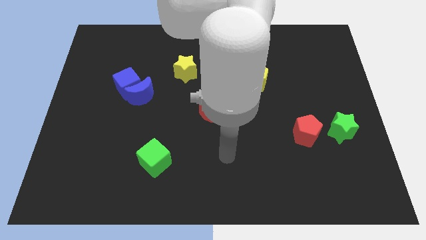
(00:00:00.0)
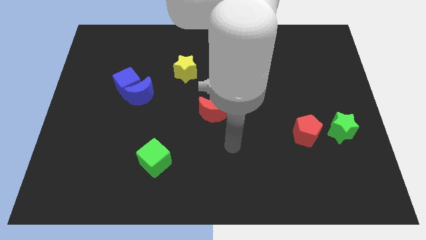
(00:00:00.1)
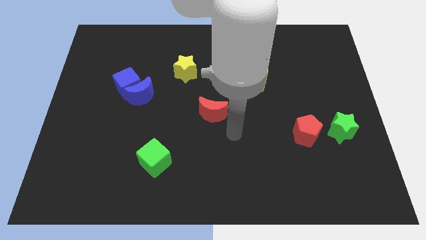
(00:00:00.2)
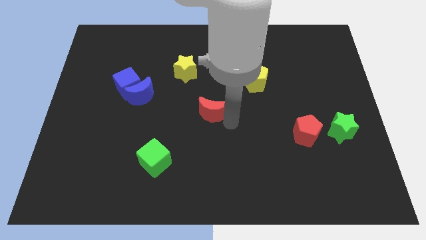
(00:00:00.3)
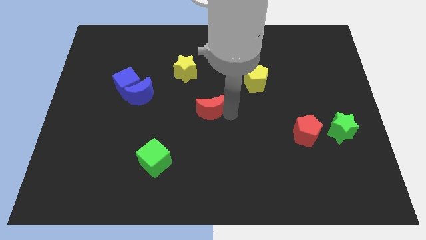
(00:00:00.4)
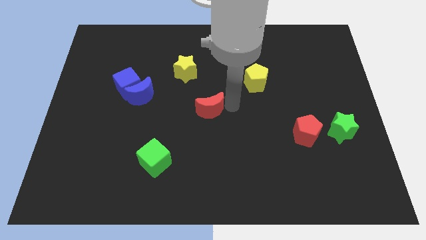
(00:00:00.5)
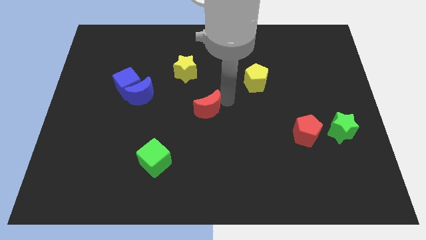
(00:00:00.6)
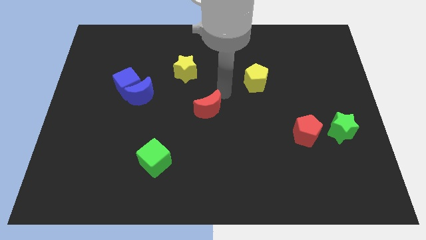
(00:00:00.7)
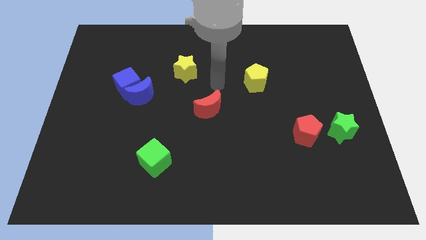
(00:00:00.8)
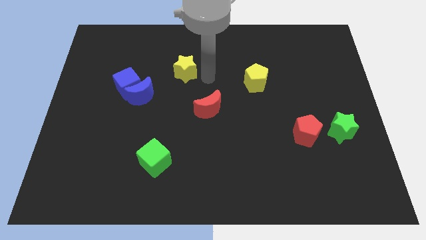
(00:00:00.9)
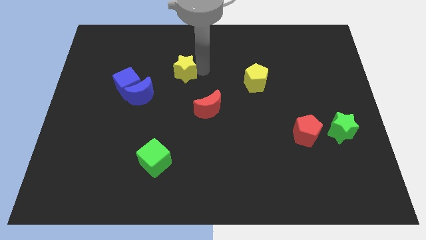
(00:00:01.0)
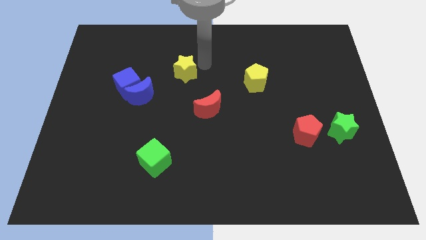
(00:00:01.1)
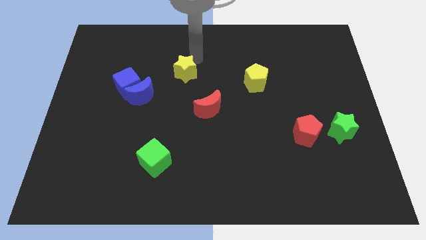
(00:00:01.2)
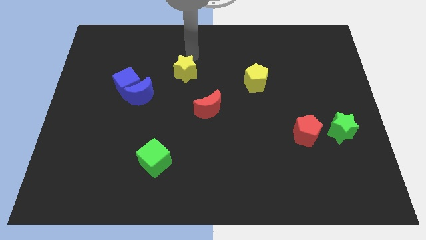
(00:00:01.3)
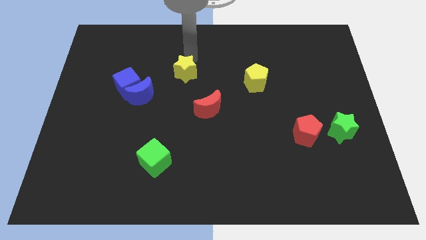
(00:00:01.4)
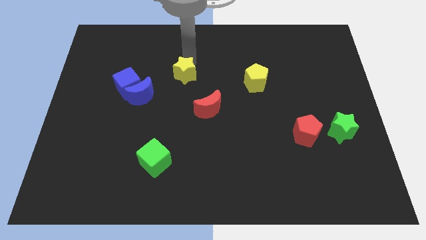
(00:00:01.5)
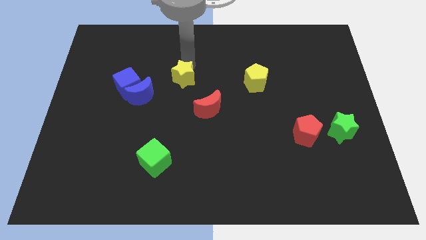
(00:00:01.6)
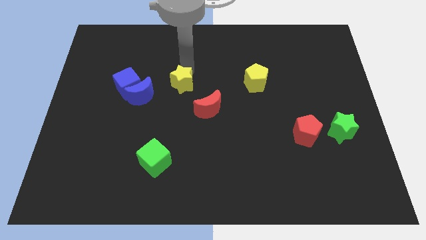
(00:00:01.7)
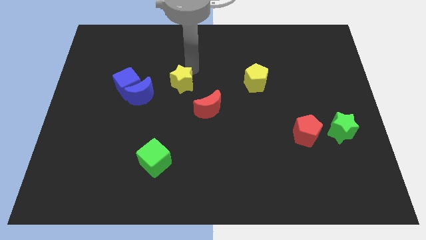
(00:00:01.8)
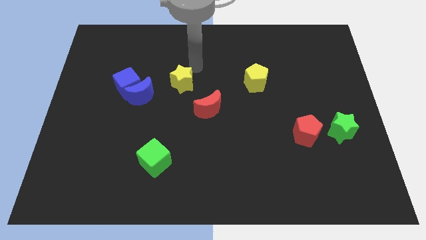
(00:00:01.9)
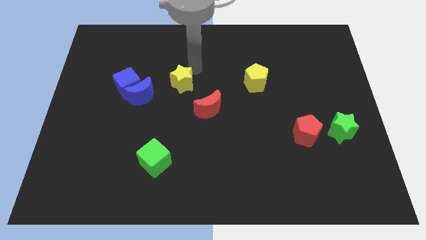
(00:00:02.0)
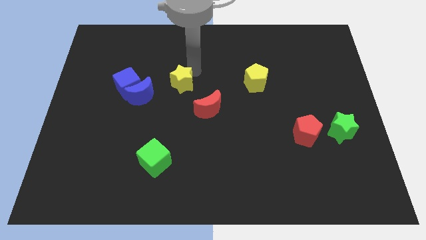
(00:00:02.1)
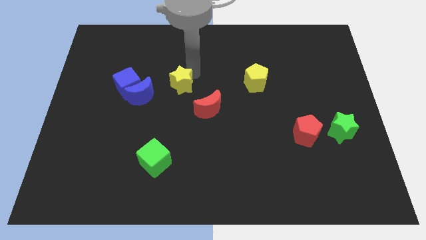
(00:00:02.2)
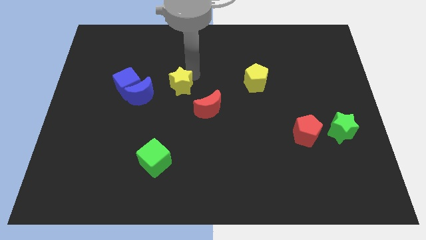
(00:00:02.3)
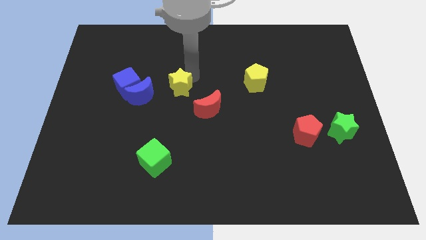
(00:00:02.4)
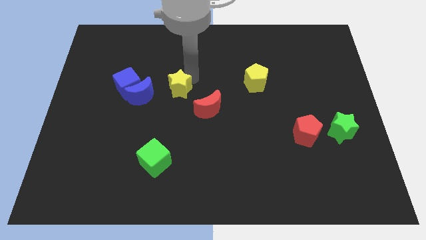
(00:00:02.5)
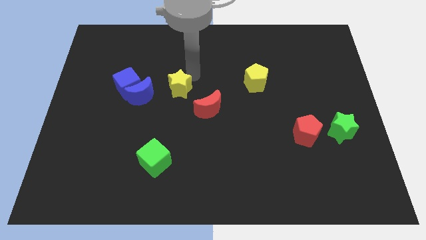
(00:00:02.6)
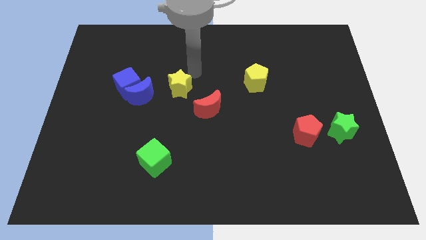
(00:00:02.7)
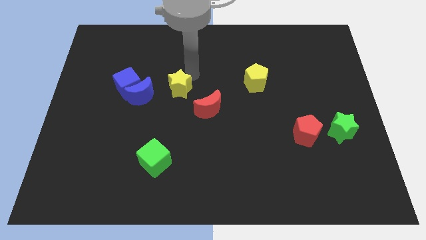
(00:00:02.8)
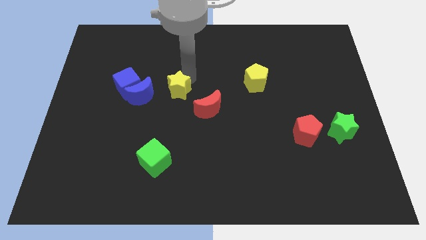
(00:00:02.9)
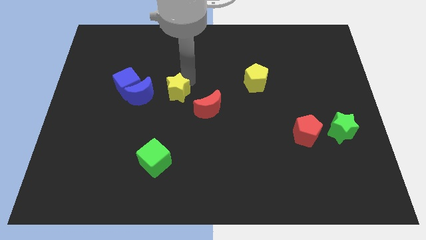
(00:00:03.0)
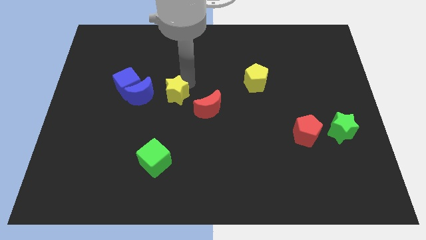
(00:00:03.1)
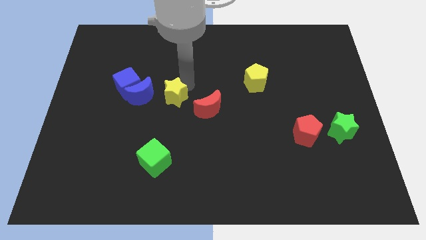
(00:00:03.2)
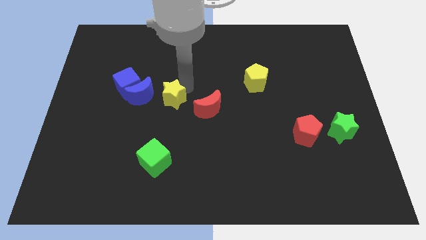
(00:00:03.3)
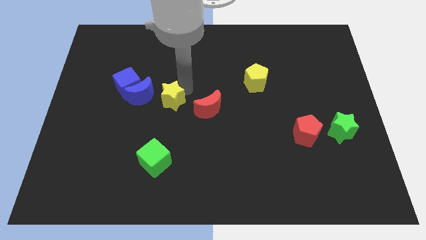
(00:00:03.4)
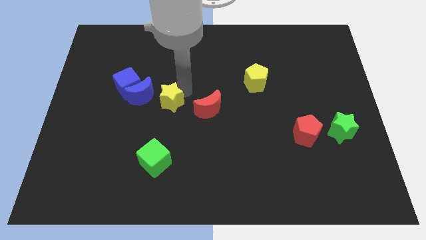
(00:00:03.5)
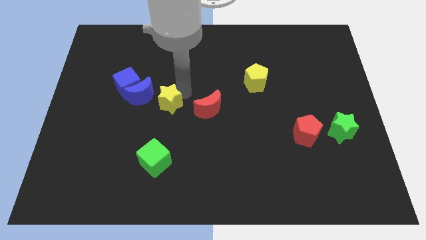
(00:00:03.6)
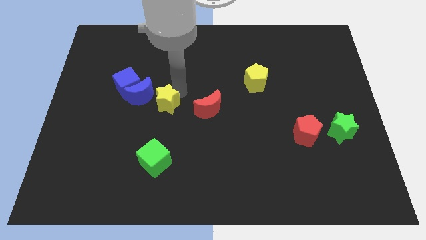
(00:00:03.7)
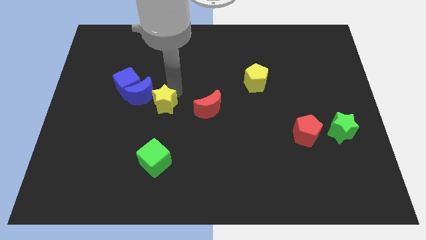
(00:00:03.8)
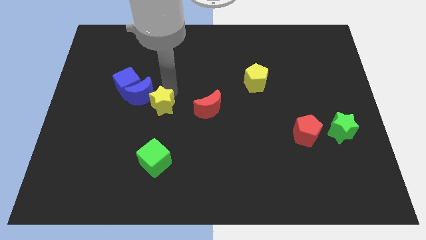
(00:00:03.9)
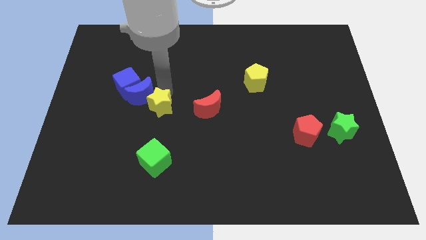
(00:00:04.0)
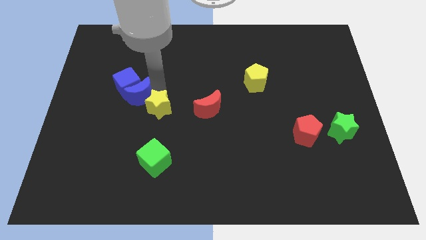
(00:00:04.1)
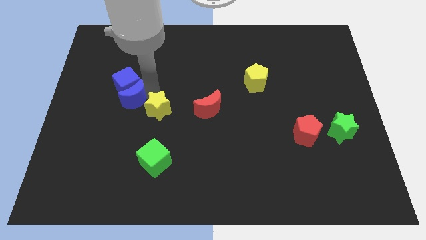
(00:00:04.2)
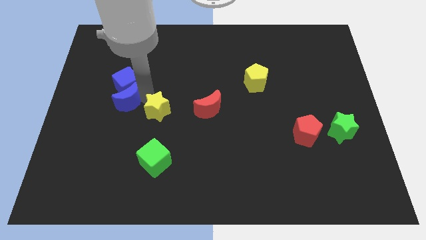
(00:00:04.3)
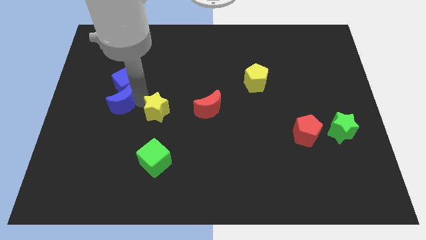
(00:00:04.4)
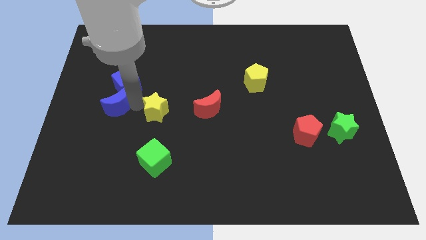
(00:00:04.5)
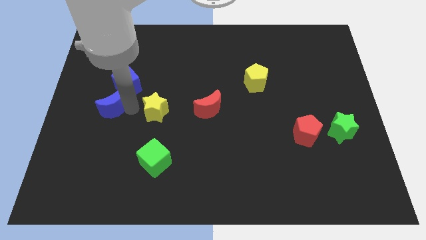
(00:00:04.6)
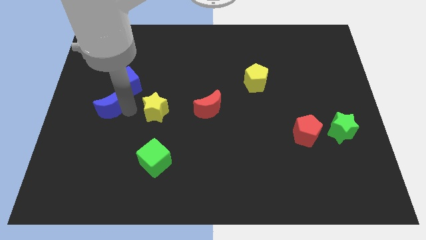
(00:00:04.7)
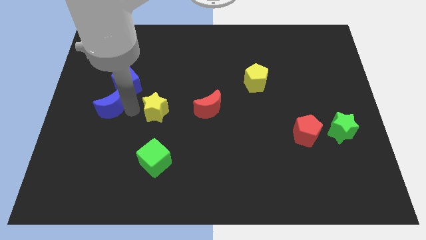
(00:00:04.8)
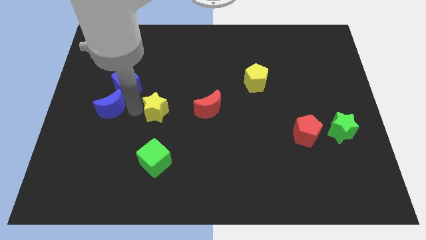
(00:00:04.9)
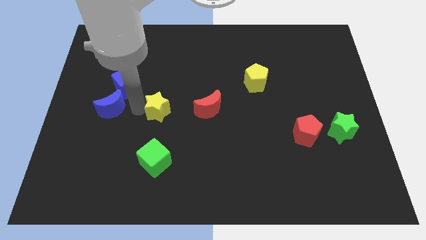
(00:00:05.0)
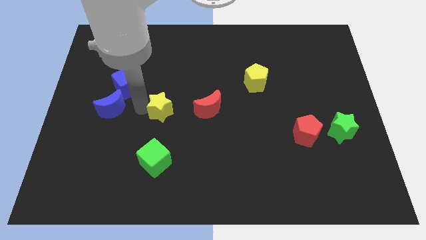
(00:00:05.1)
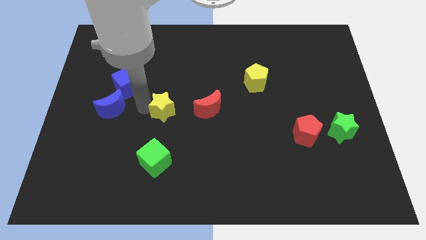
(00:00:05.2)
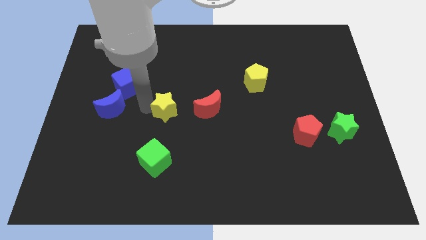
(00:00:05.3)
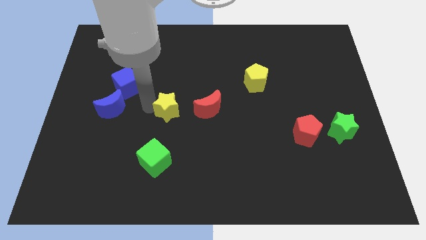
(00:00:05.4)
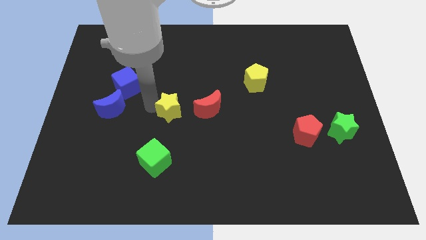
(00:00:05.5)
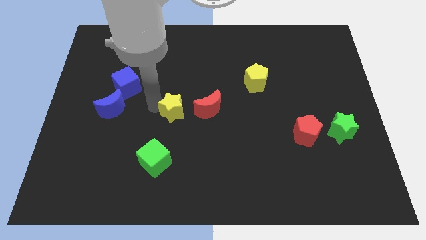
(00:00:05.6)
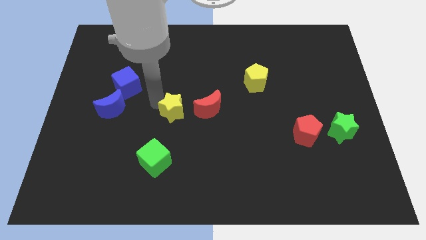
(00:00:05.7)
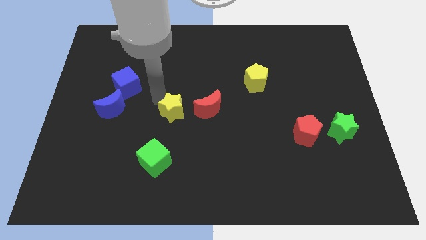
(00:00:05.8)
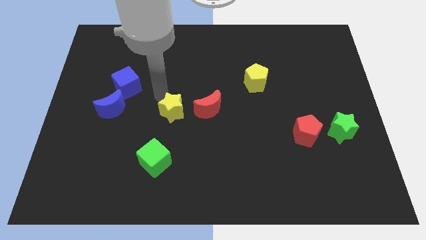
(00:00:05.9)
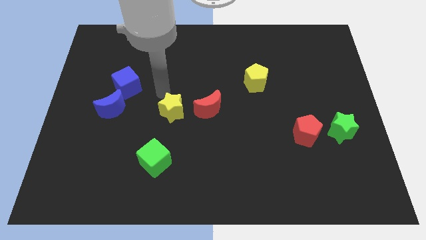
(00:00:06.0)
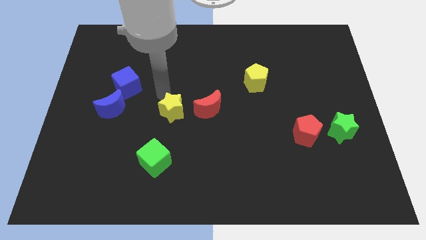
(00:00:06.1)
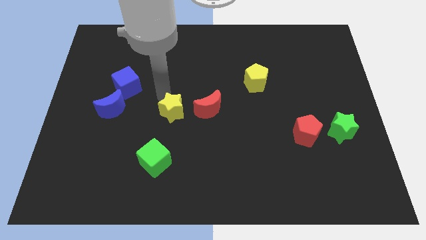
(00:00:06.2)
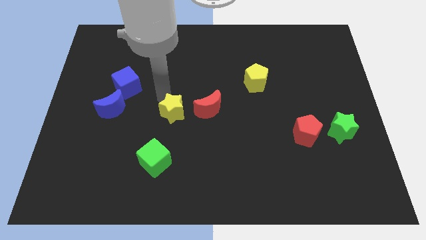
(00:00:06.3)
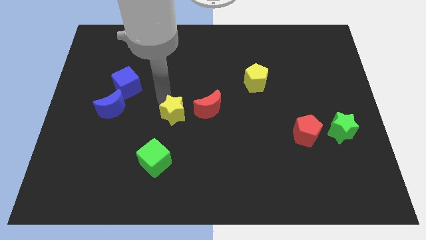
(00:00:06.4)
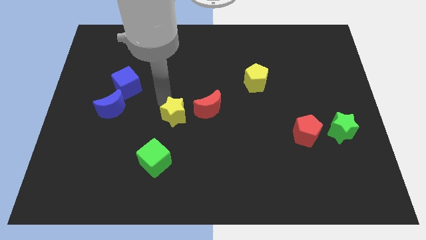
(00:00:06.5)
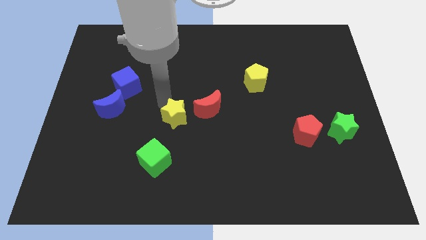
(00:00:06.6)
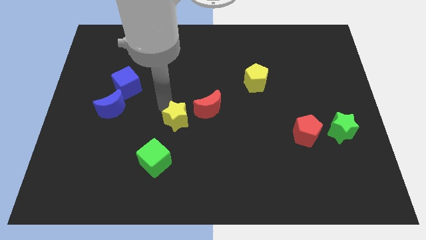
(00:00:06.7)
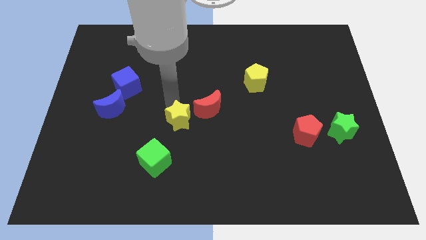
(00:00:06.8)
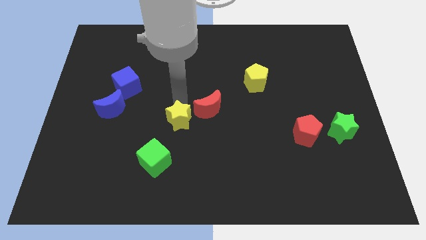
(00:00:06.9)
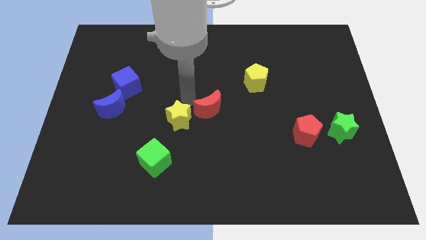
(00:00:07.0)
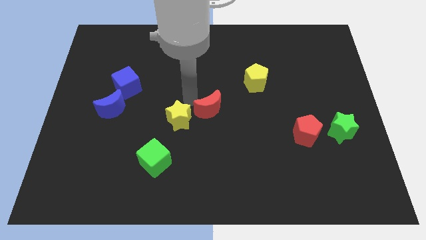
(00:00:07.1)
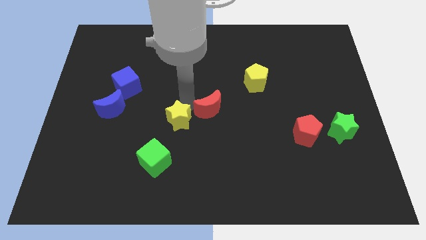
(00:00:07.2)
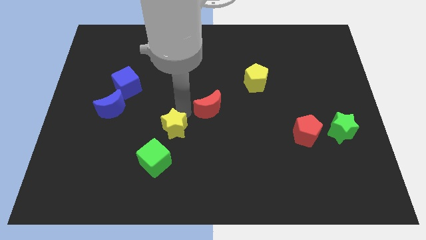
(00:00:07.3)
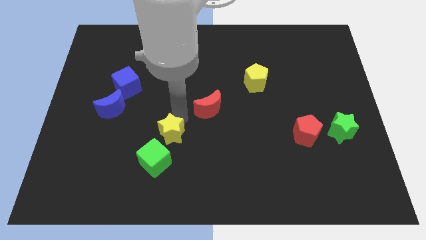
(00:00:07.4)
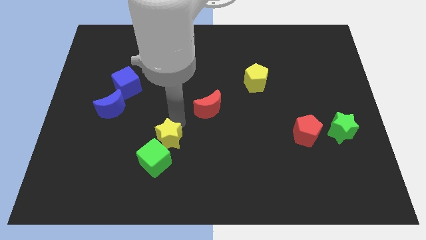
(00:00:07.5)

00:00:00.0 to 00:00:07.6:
push the yellow star close to the green cube
